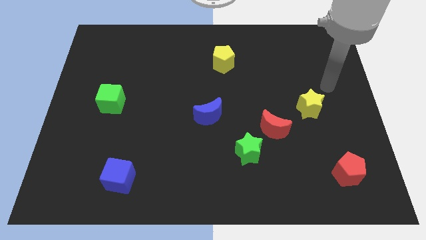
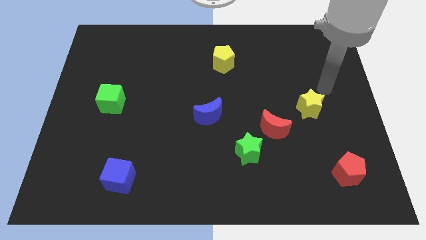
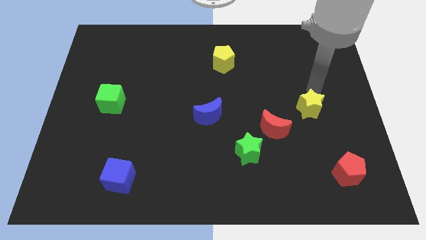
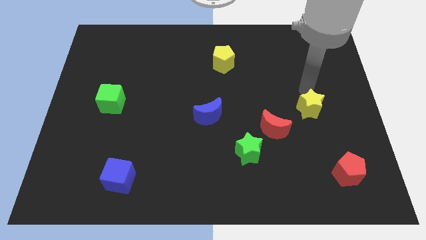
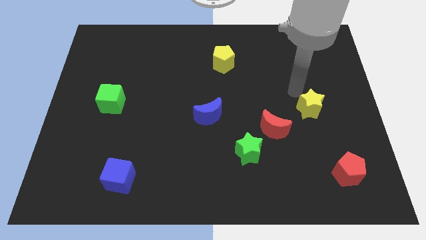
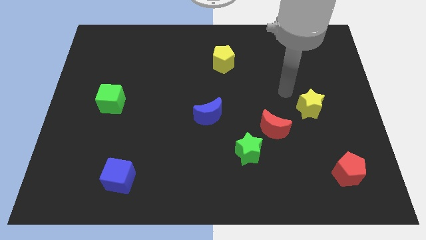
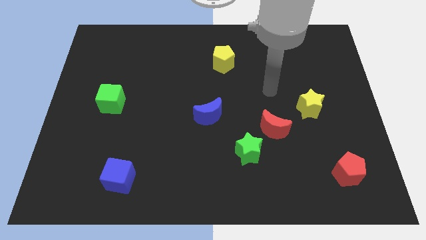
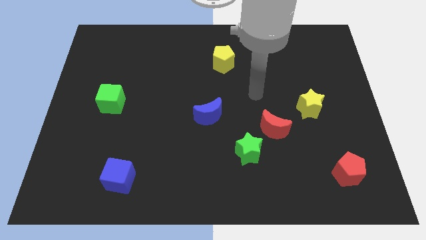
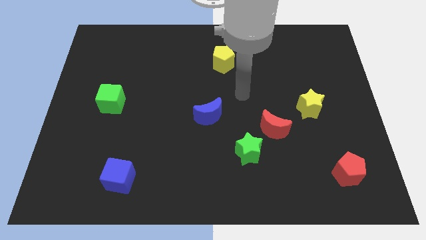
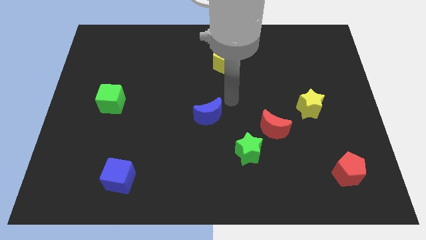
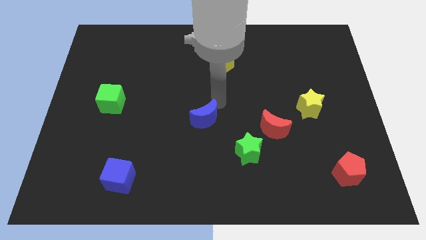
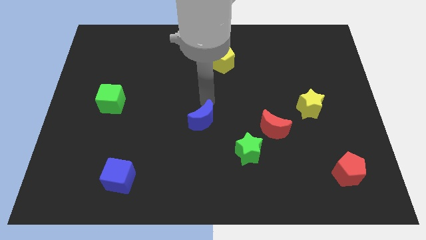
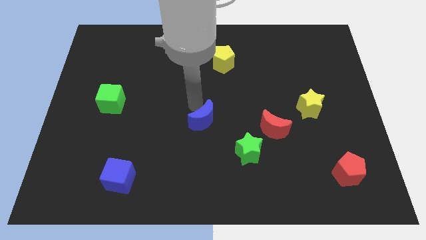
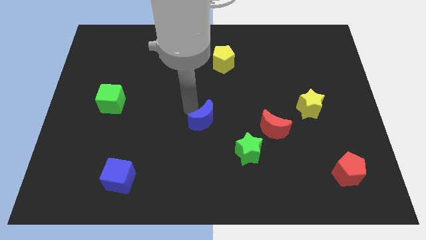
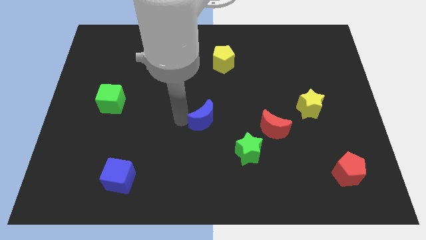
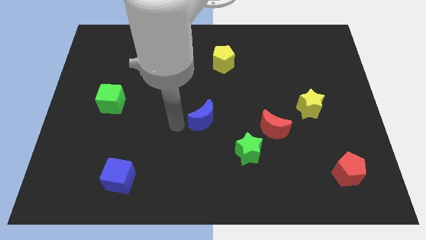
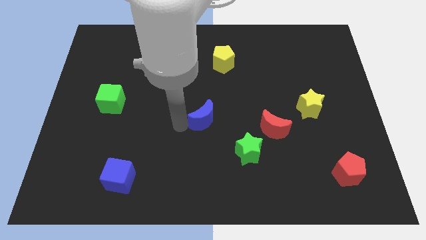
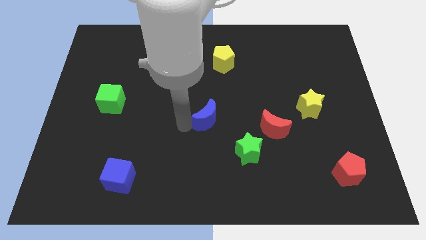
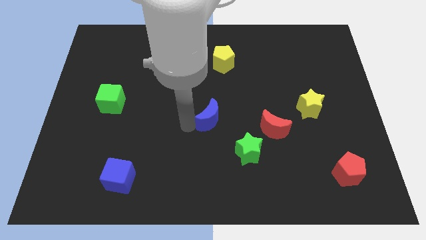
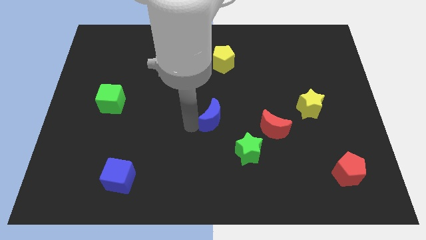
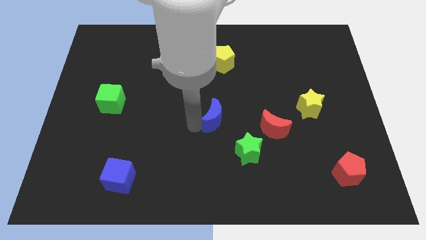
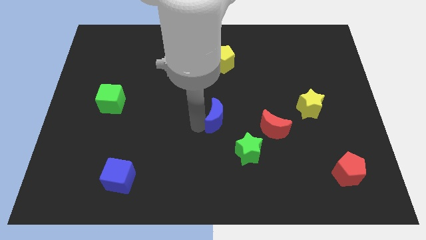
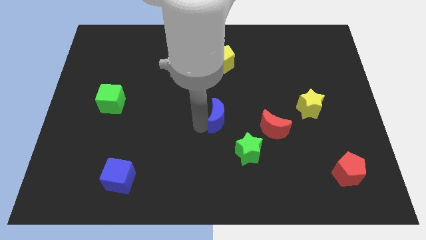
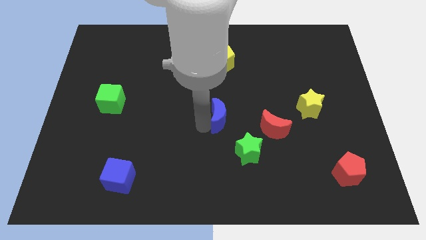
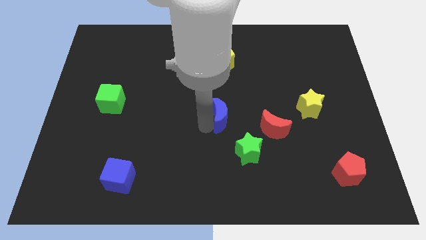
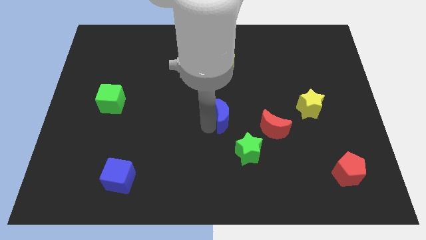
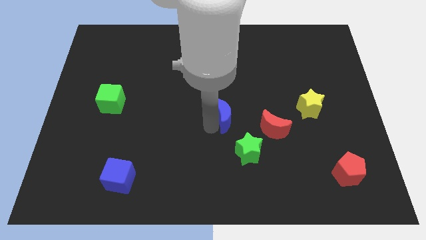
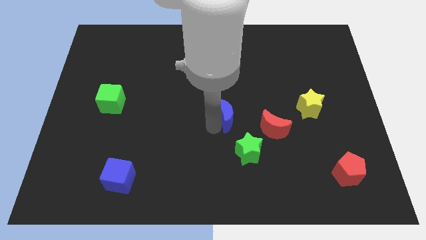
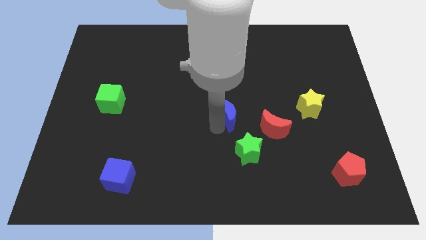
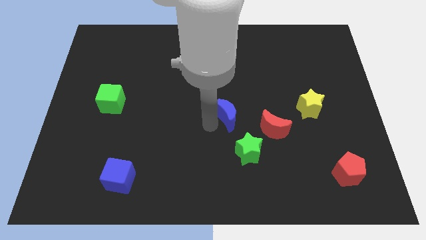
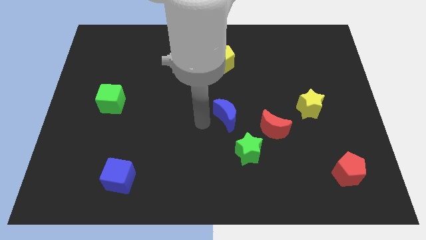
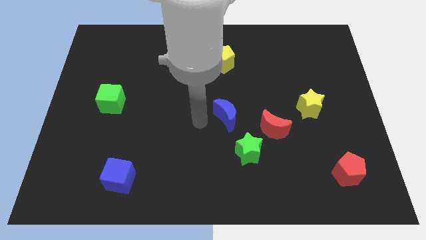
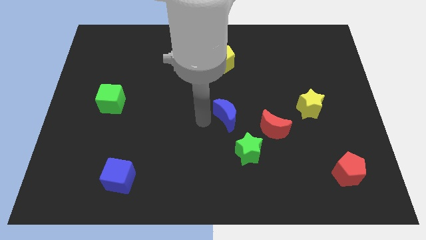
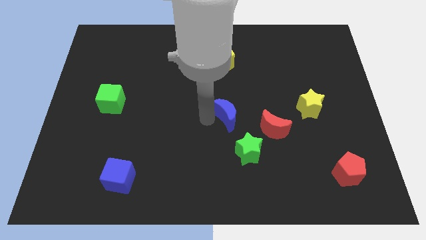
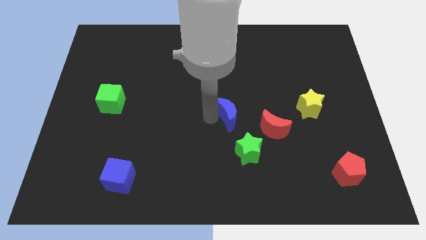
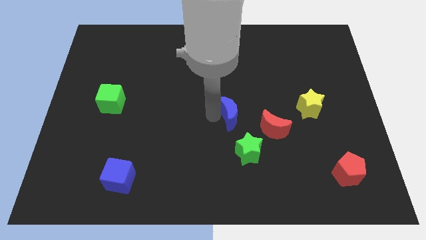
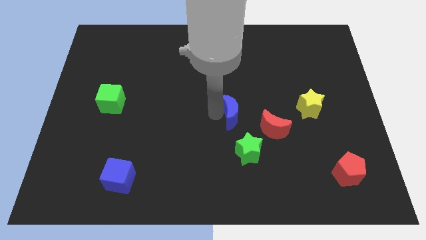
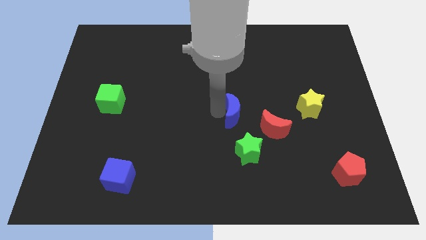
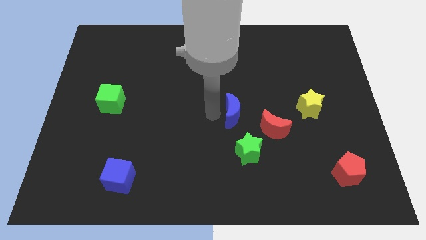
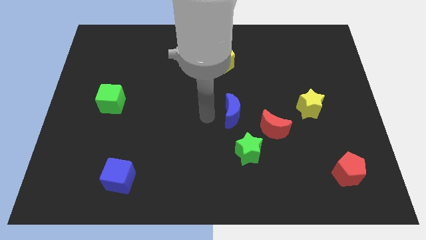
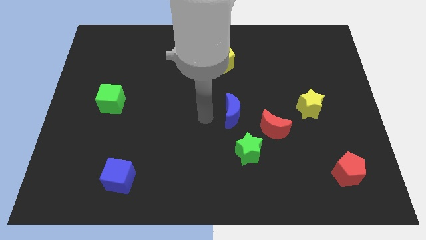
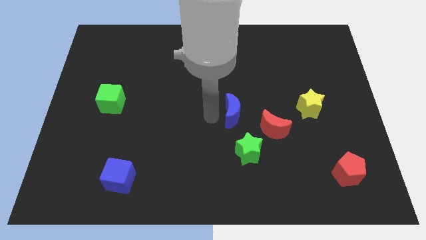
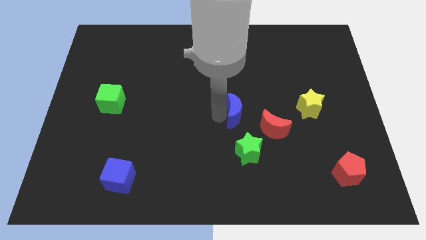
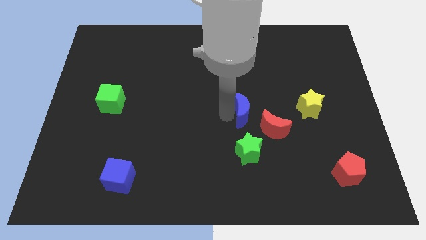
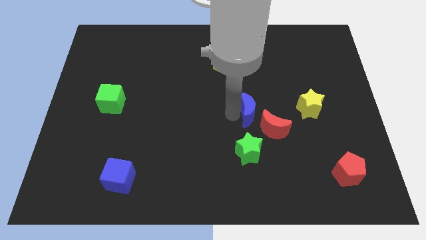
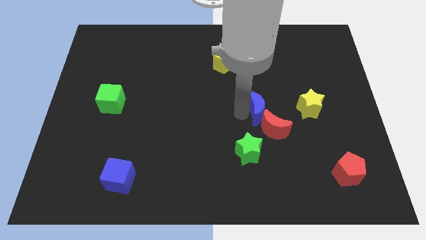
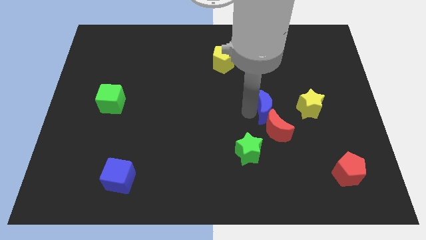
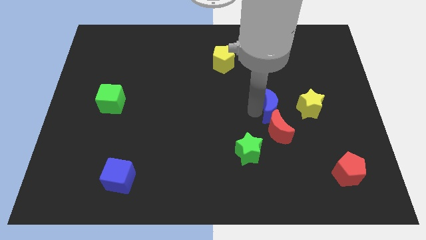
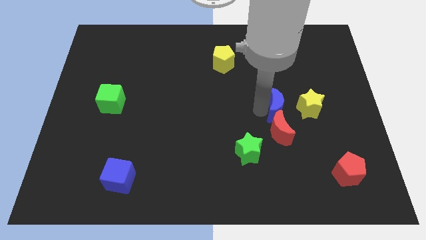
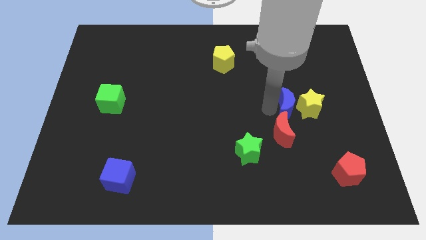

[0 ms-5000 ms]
push the blue moon next to the yellow star

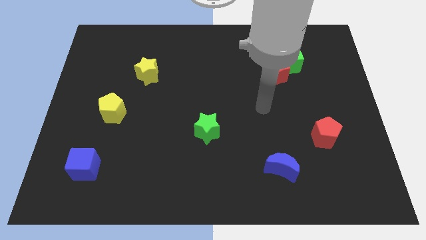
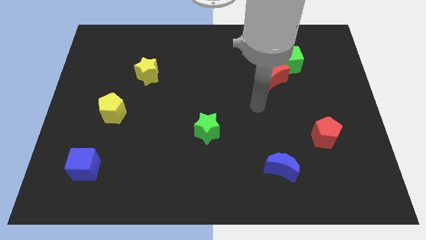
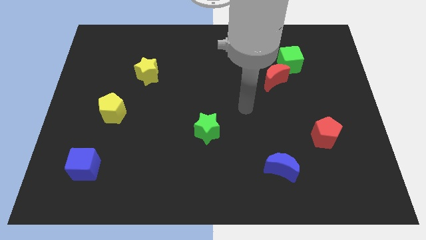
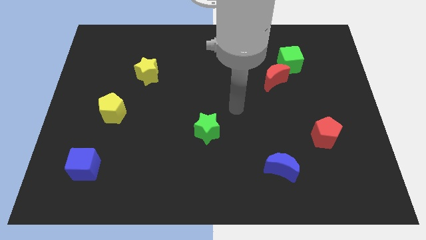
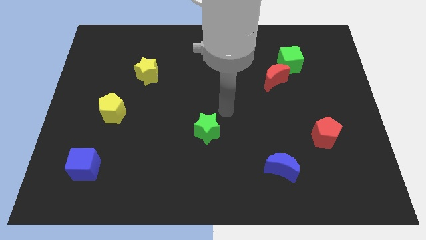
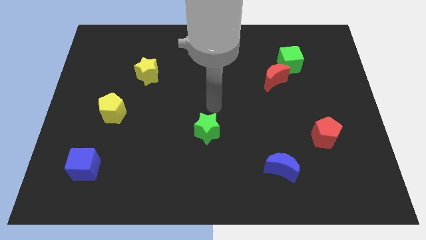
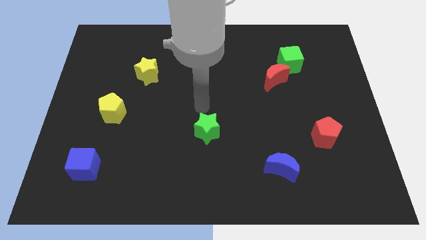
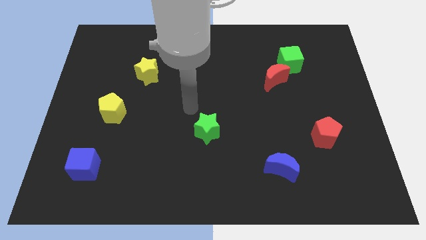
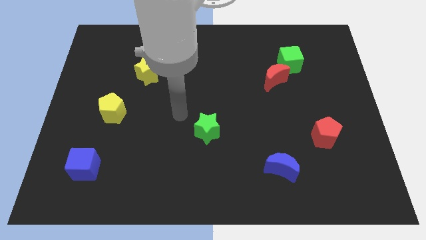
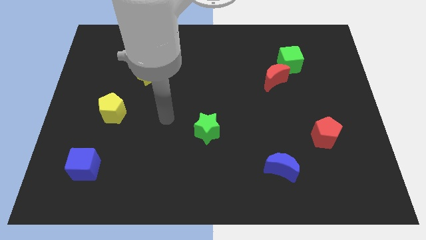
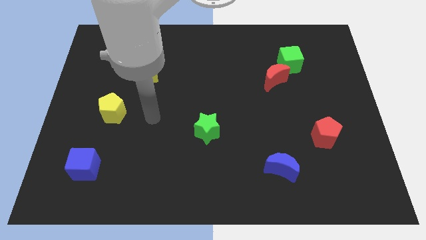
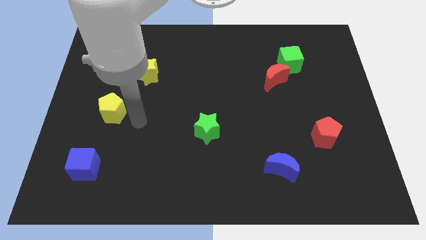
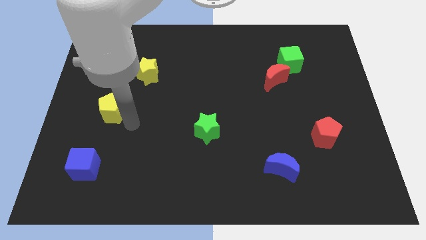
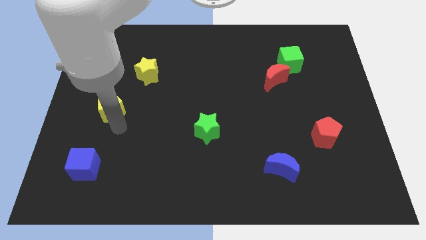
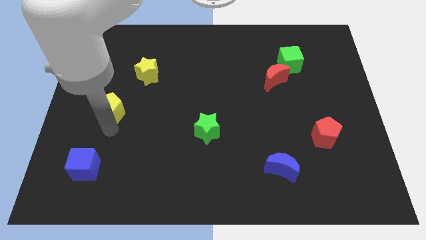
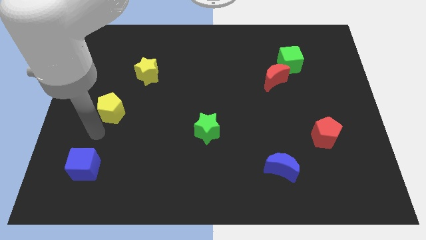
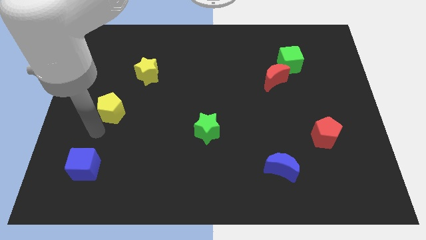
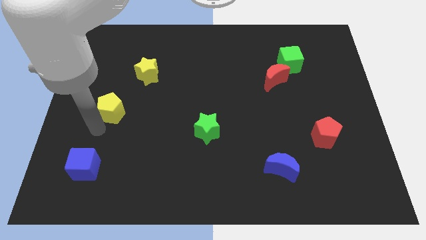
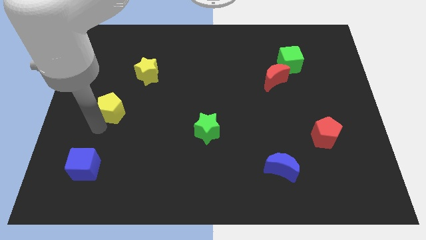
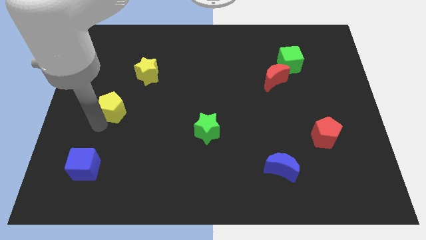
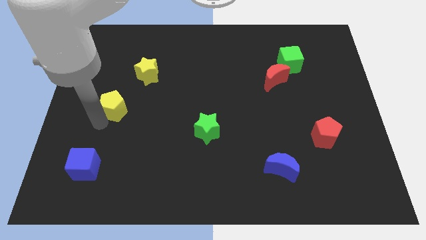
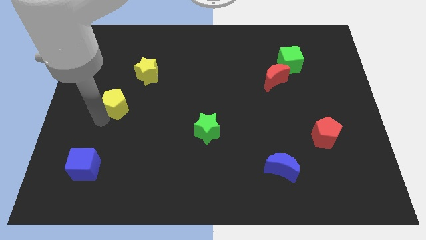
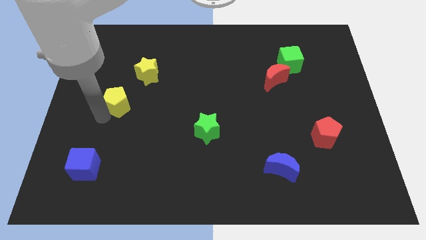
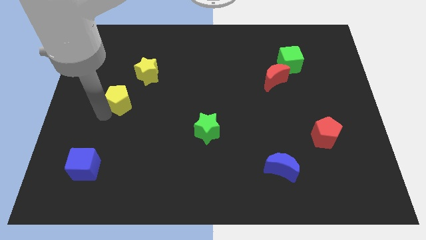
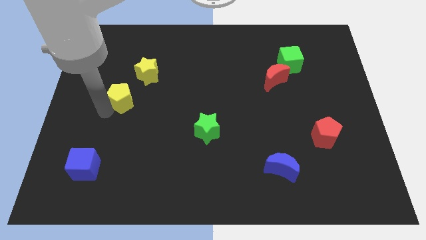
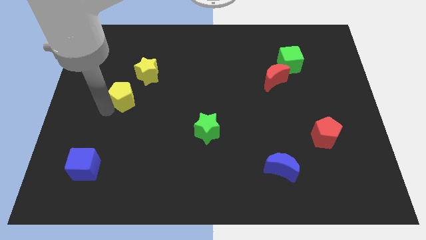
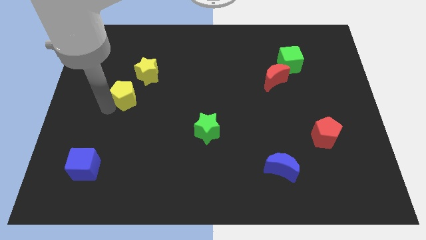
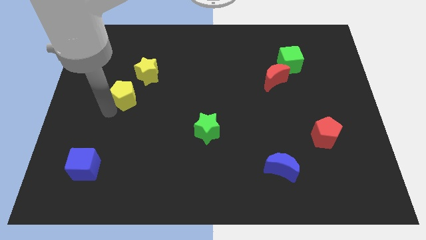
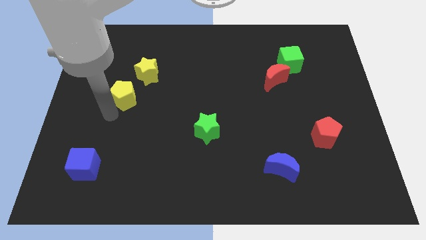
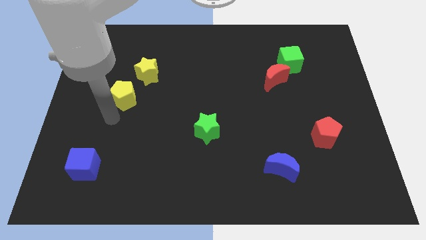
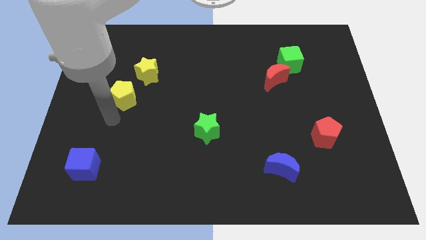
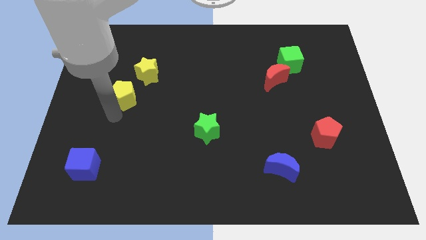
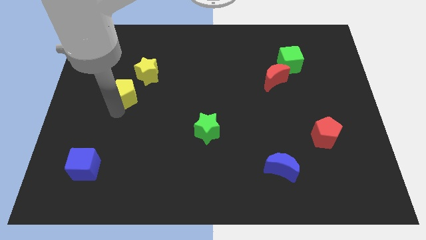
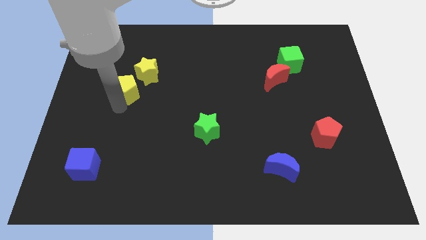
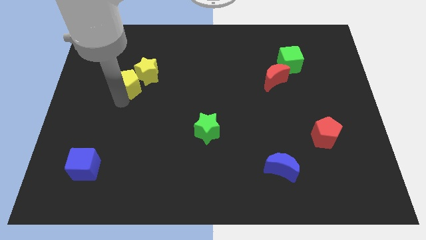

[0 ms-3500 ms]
put the yellow pentagon close to the yellow star
